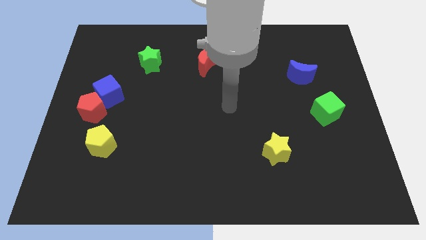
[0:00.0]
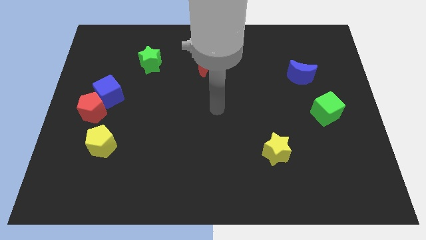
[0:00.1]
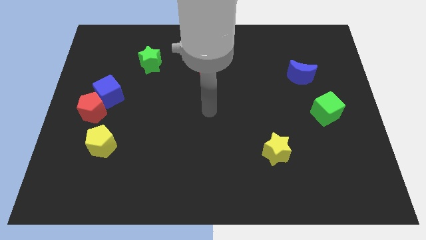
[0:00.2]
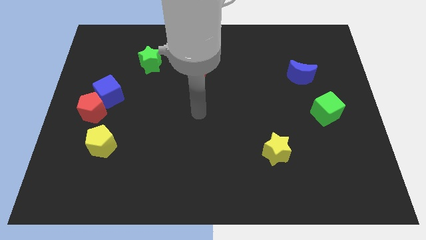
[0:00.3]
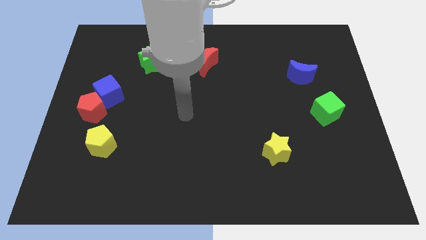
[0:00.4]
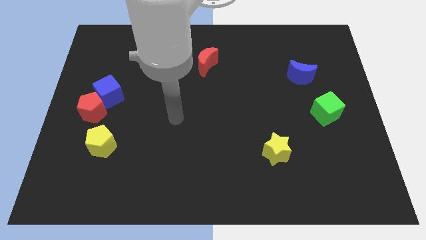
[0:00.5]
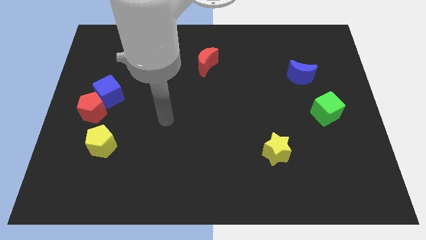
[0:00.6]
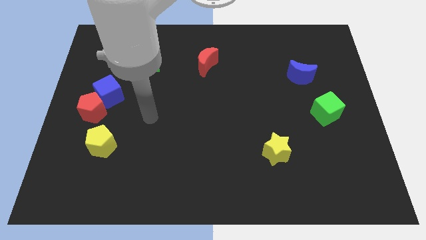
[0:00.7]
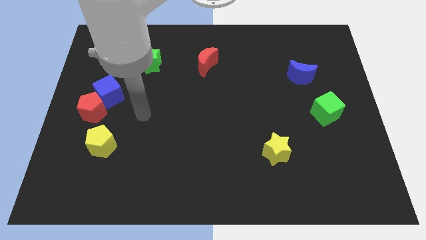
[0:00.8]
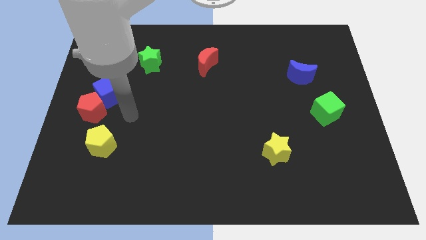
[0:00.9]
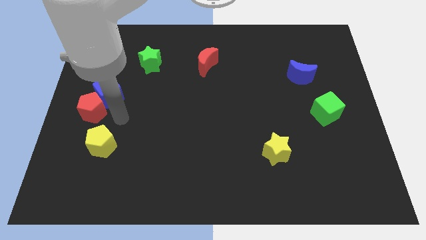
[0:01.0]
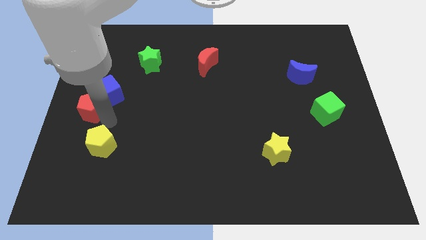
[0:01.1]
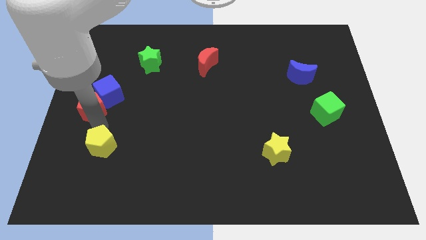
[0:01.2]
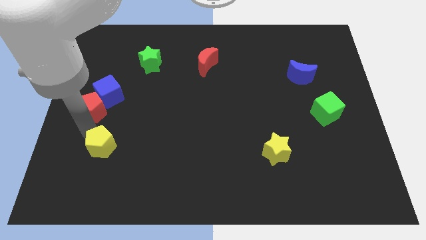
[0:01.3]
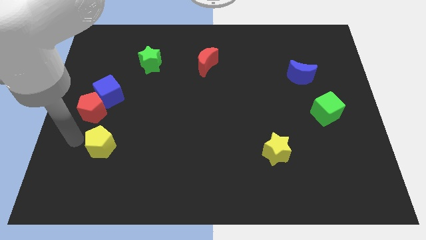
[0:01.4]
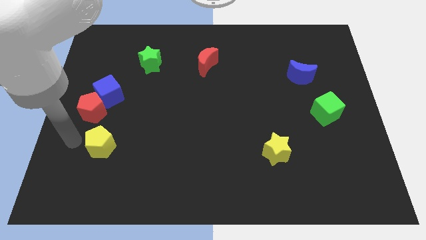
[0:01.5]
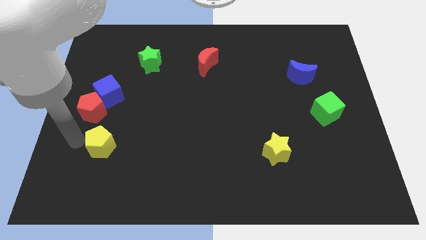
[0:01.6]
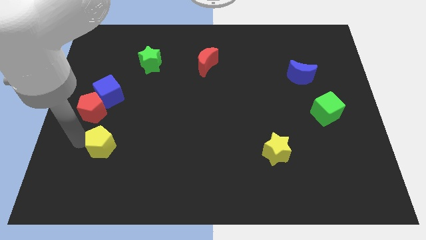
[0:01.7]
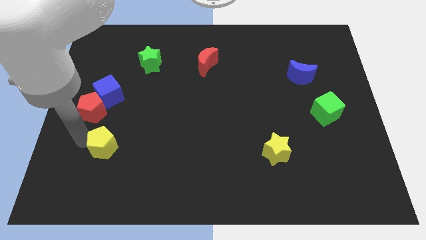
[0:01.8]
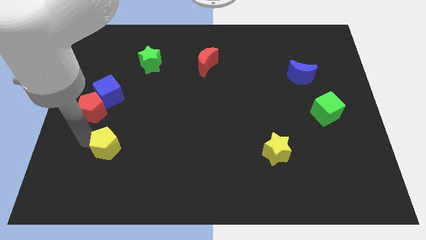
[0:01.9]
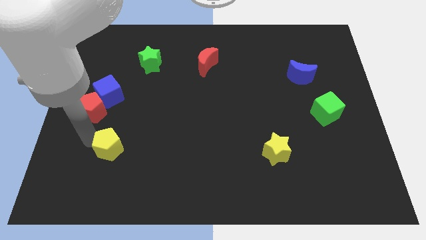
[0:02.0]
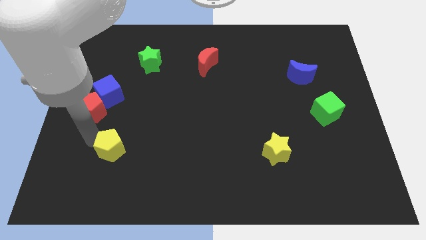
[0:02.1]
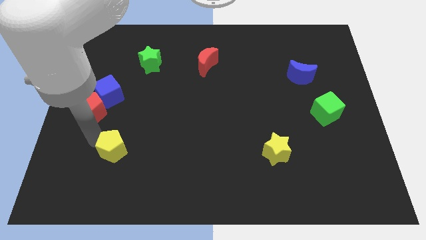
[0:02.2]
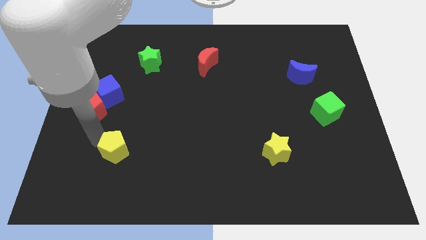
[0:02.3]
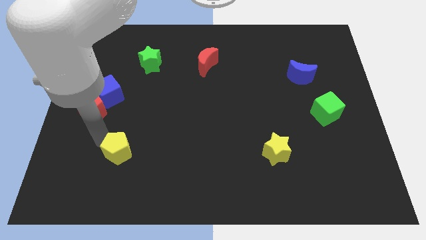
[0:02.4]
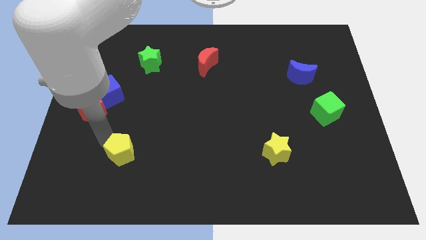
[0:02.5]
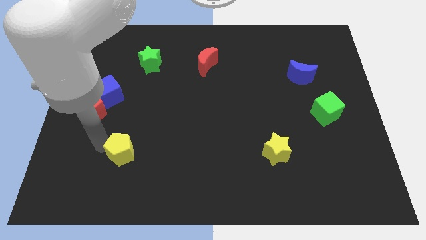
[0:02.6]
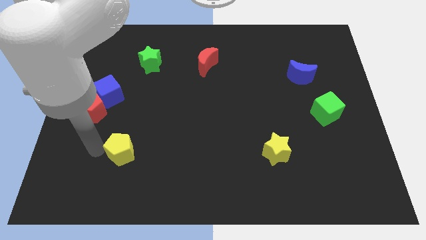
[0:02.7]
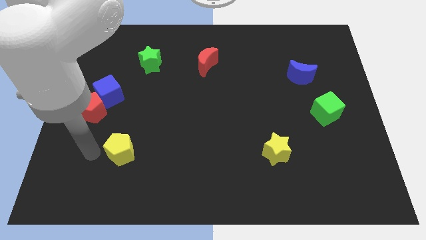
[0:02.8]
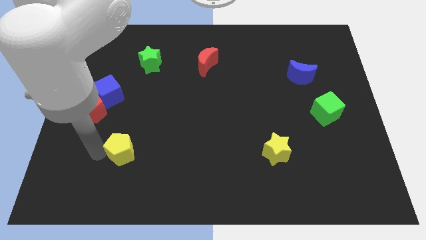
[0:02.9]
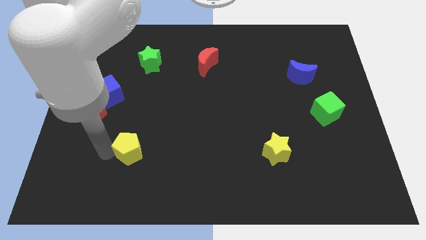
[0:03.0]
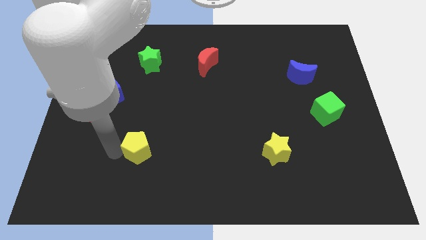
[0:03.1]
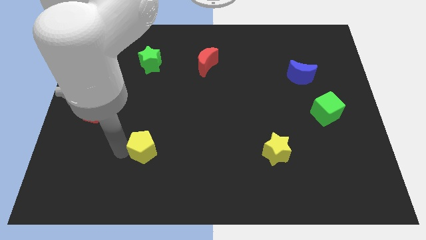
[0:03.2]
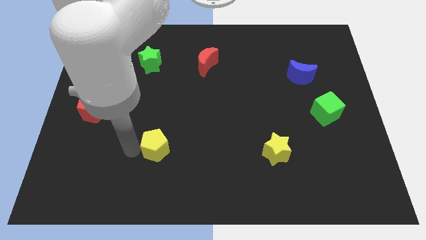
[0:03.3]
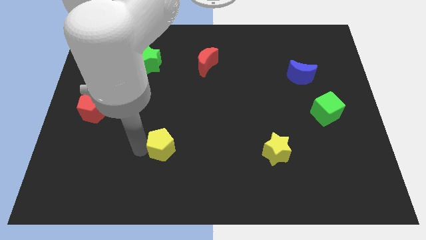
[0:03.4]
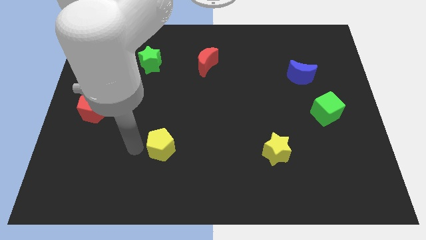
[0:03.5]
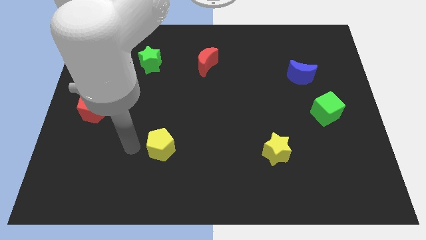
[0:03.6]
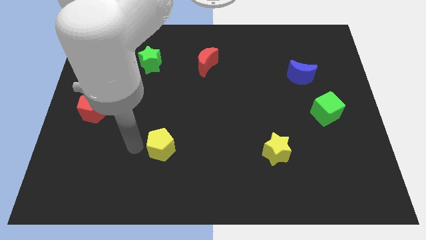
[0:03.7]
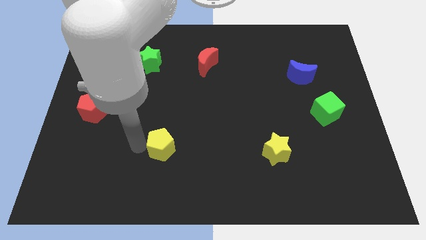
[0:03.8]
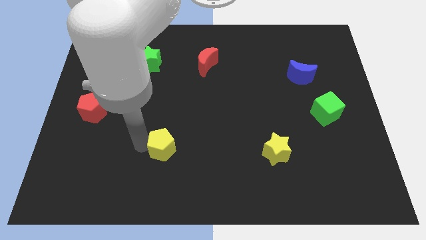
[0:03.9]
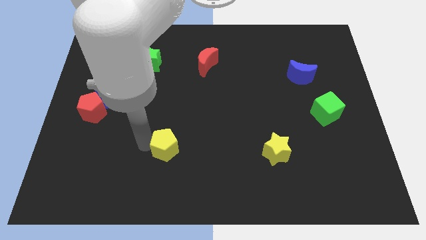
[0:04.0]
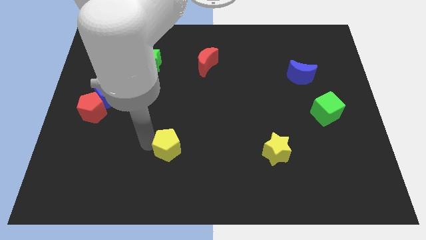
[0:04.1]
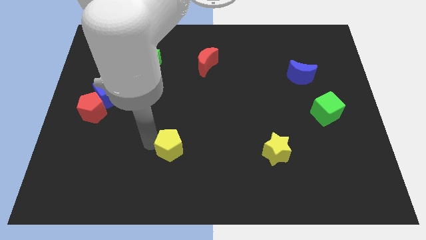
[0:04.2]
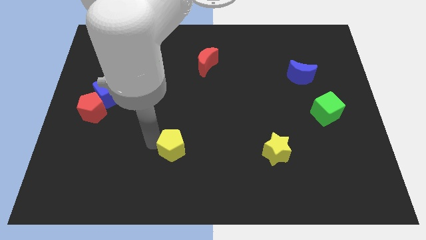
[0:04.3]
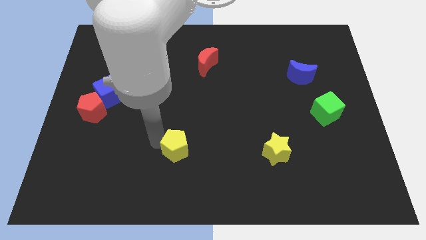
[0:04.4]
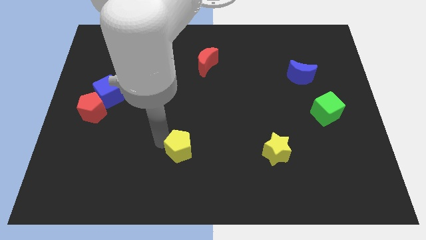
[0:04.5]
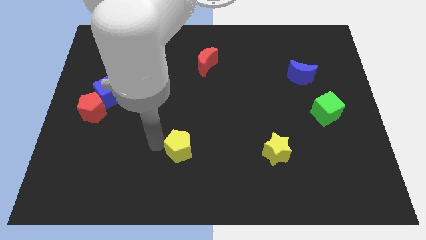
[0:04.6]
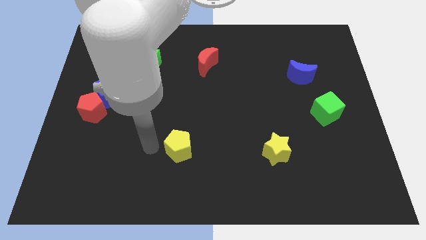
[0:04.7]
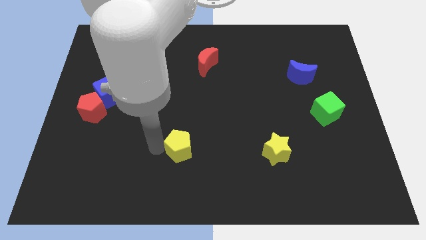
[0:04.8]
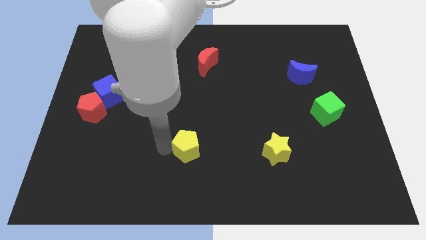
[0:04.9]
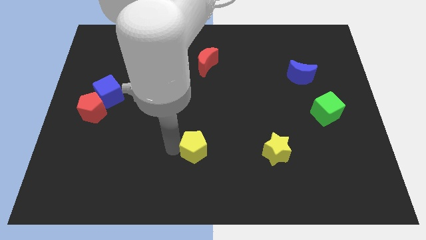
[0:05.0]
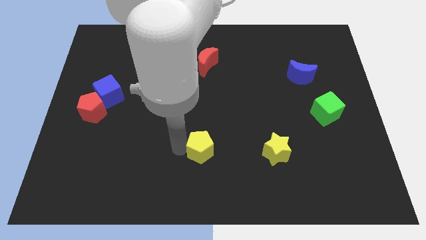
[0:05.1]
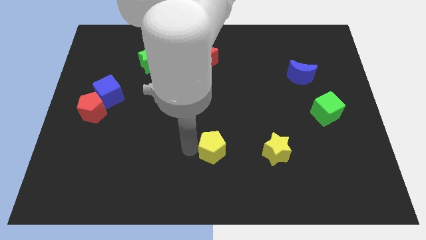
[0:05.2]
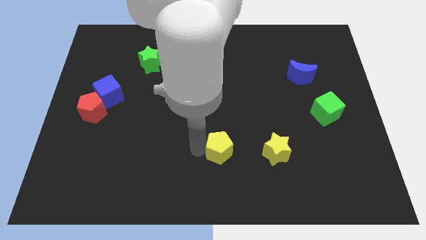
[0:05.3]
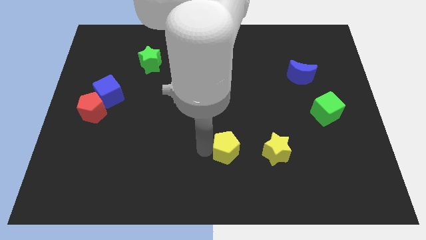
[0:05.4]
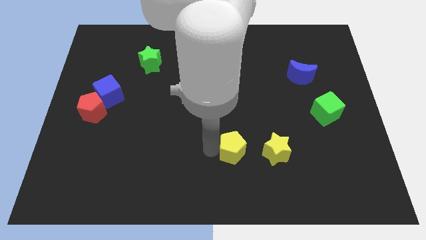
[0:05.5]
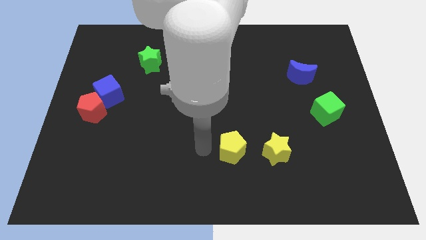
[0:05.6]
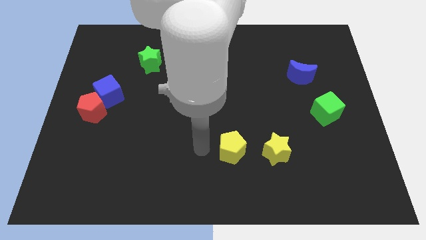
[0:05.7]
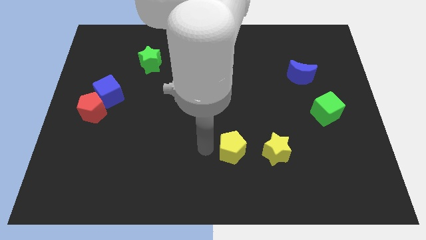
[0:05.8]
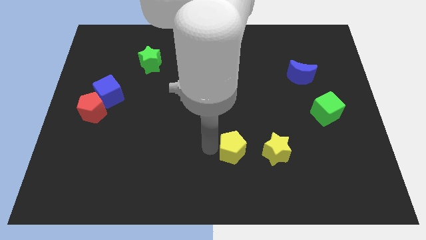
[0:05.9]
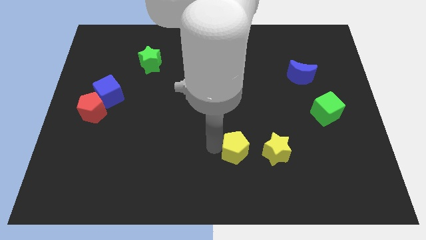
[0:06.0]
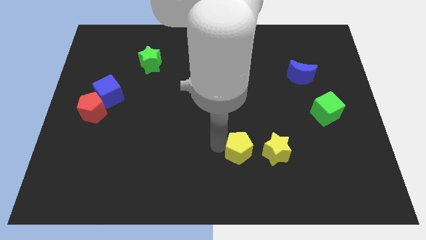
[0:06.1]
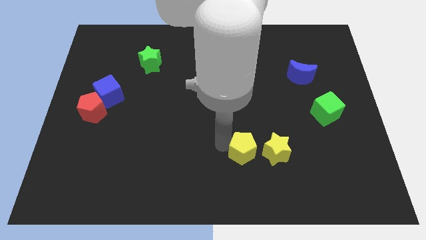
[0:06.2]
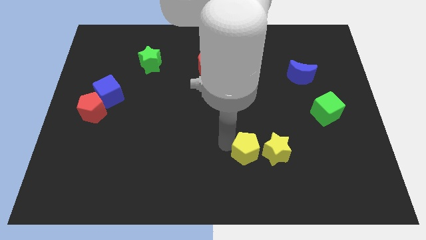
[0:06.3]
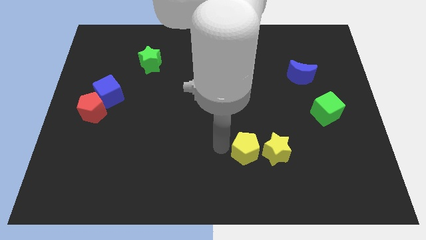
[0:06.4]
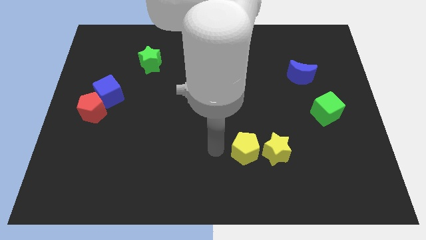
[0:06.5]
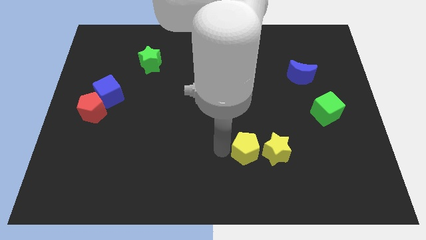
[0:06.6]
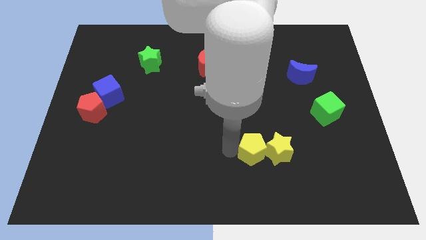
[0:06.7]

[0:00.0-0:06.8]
move the yellow pentagon towards the yellow star
